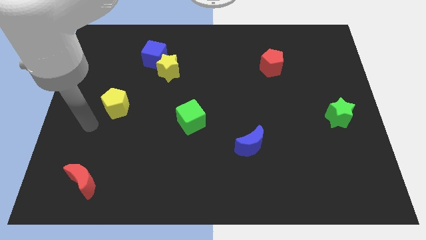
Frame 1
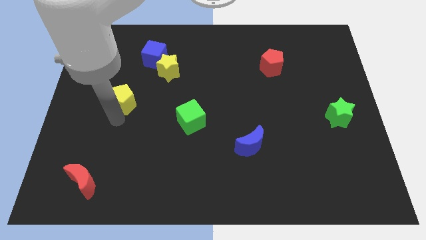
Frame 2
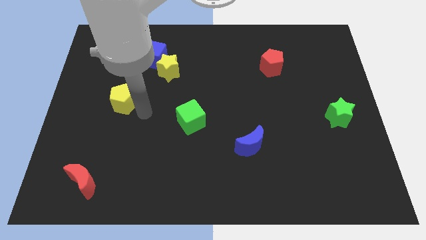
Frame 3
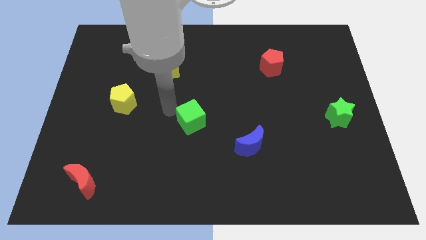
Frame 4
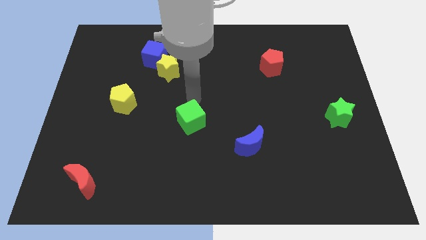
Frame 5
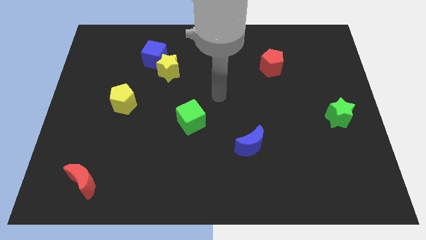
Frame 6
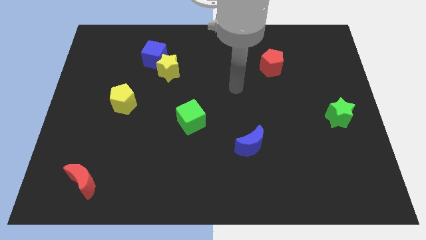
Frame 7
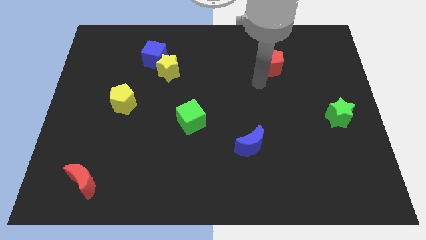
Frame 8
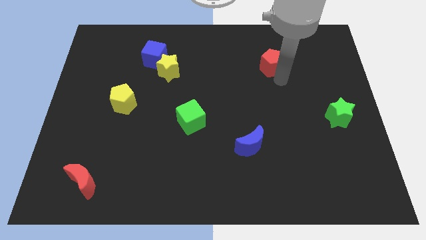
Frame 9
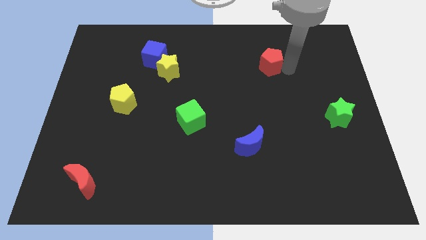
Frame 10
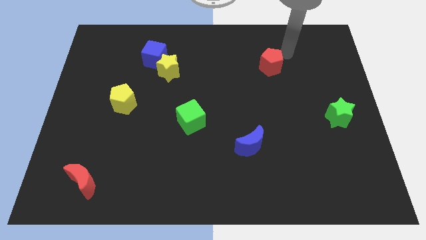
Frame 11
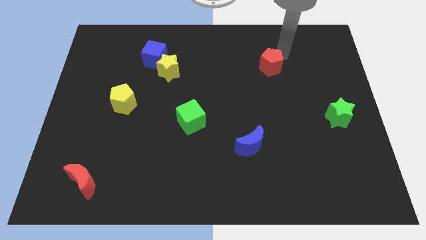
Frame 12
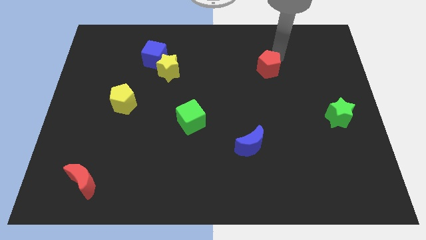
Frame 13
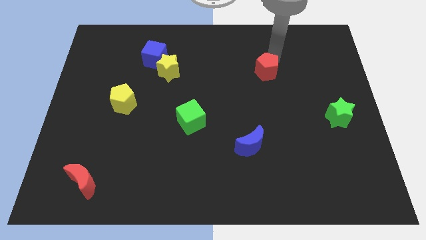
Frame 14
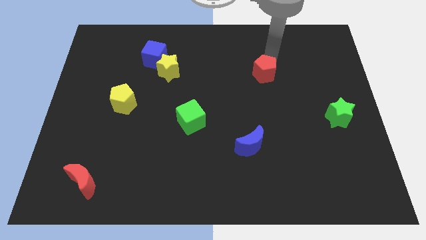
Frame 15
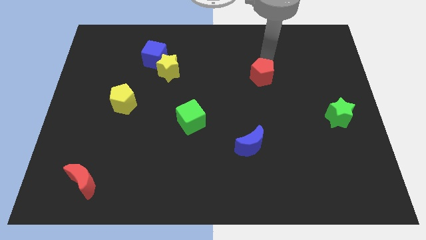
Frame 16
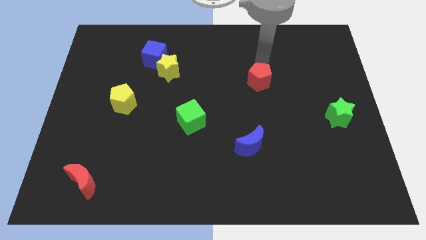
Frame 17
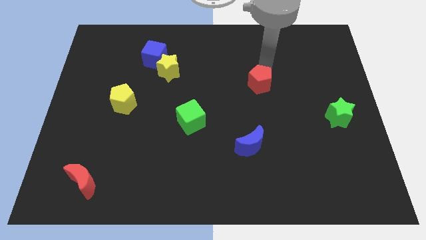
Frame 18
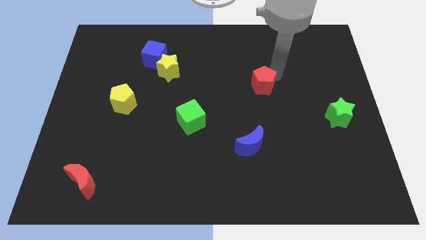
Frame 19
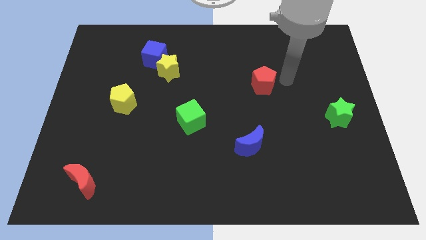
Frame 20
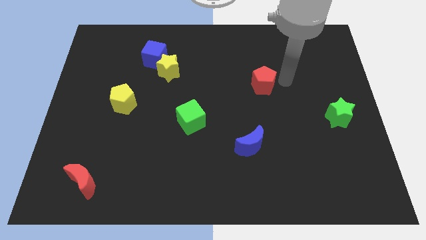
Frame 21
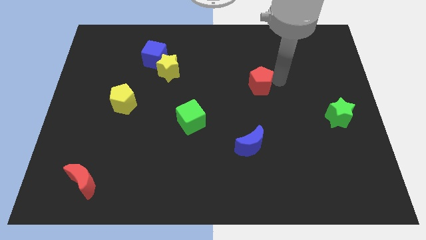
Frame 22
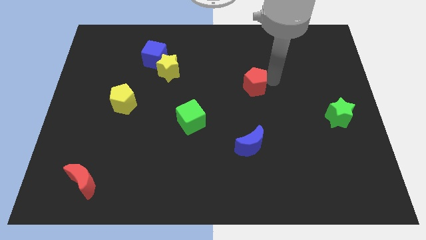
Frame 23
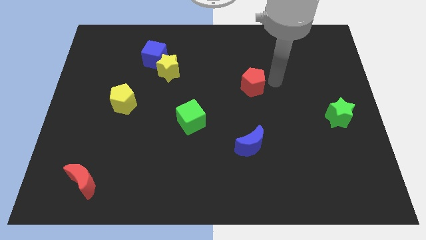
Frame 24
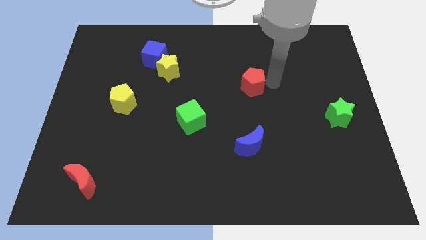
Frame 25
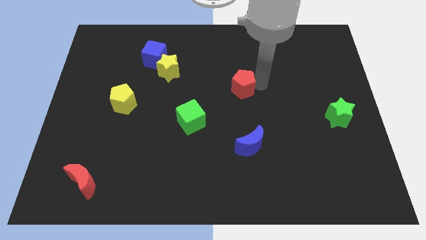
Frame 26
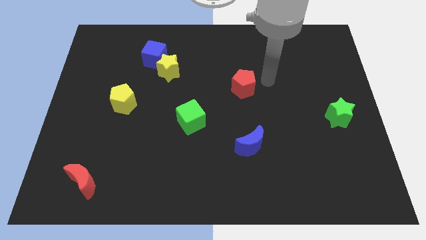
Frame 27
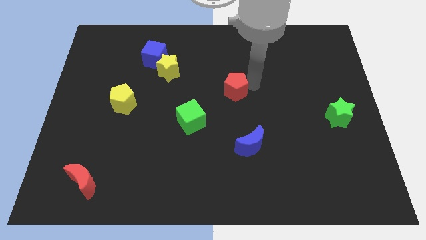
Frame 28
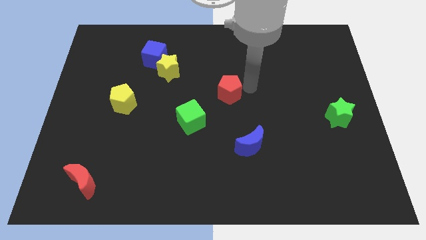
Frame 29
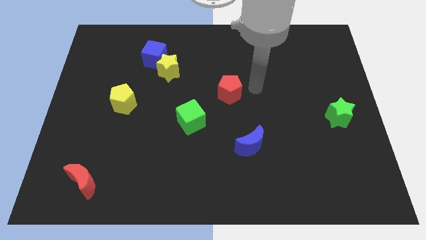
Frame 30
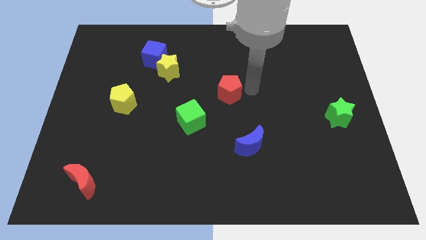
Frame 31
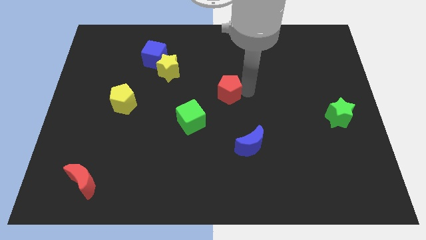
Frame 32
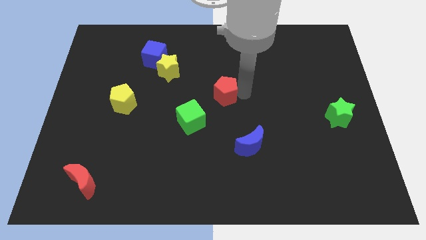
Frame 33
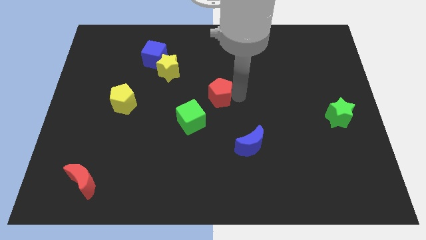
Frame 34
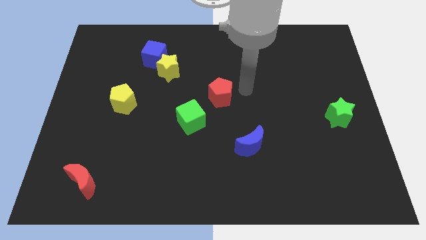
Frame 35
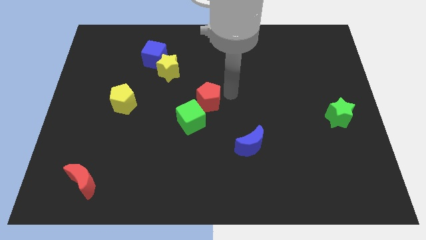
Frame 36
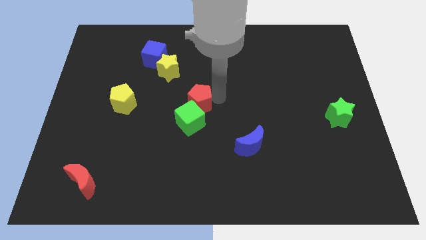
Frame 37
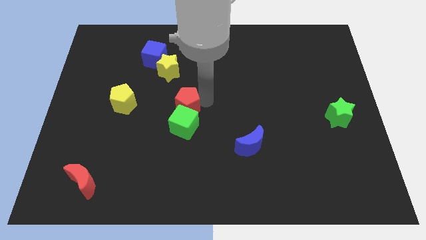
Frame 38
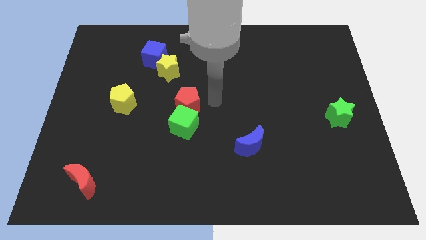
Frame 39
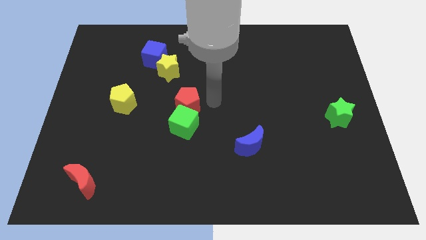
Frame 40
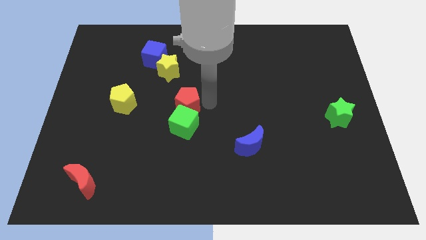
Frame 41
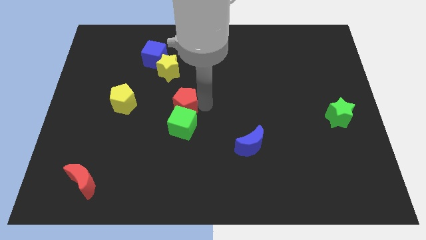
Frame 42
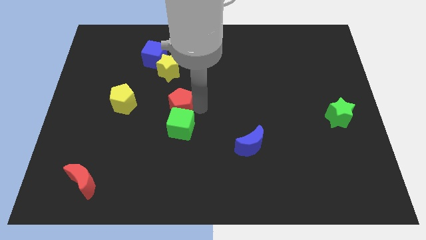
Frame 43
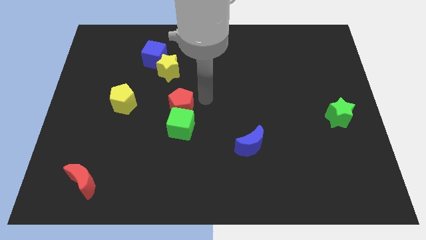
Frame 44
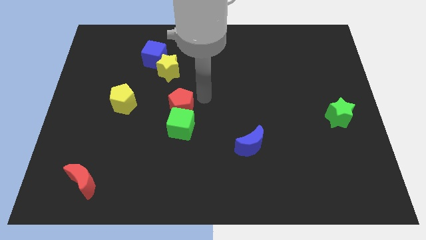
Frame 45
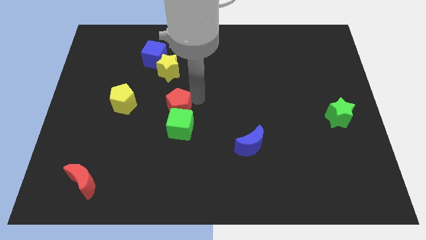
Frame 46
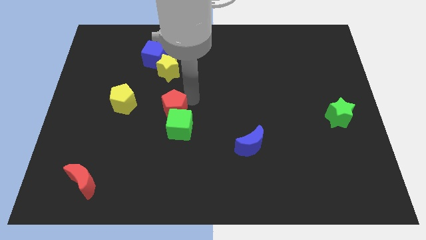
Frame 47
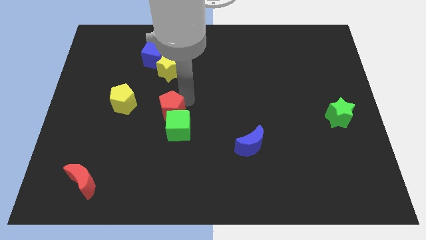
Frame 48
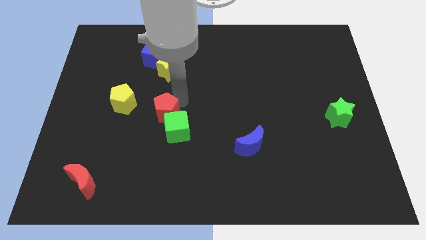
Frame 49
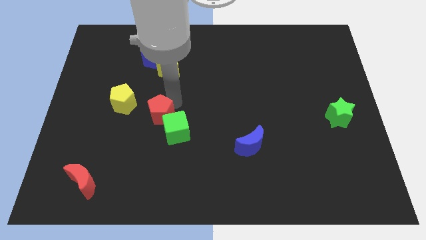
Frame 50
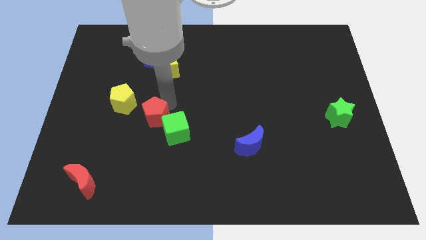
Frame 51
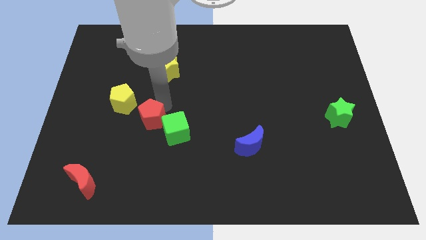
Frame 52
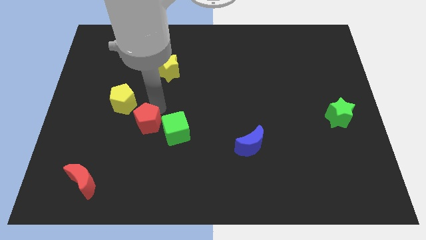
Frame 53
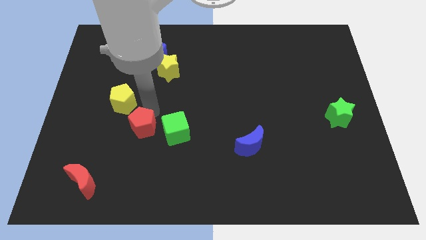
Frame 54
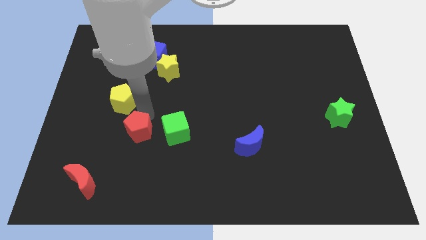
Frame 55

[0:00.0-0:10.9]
move the red pentagon to the bottom of the yellow pentagon

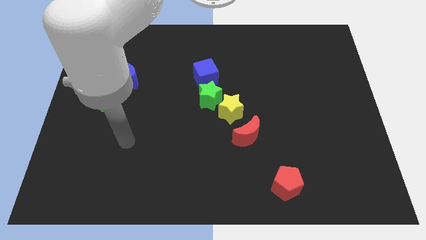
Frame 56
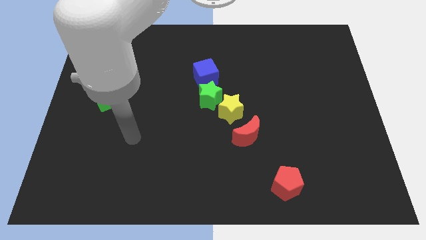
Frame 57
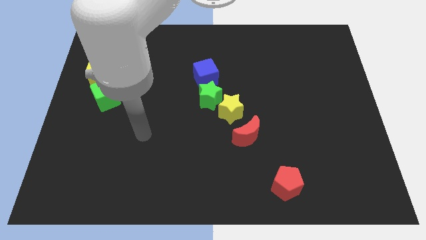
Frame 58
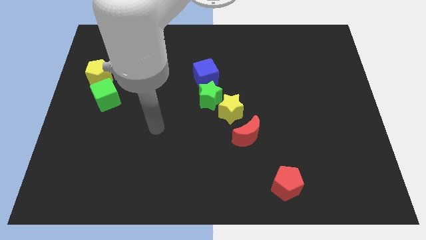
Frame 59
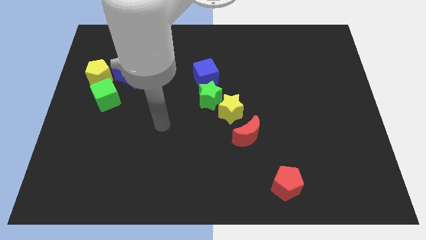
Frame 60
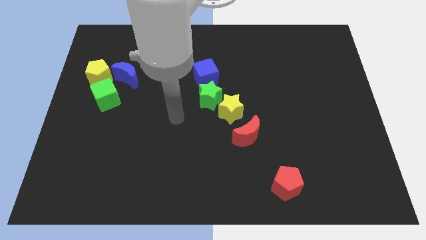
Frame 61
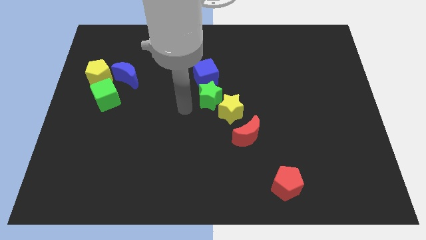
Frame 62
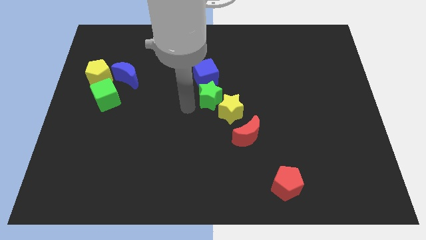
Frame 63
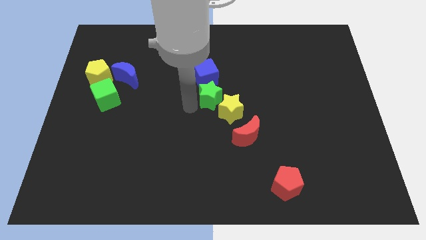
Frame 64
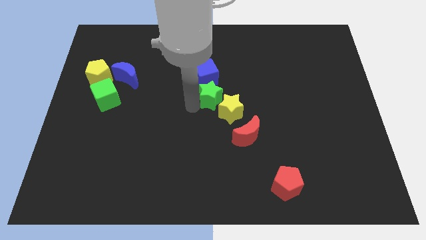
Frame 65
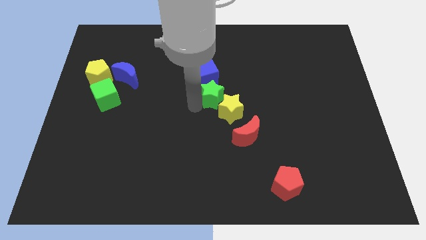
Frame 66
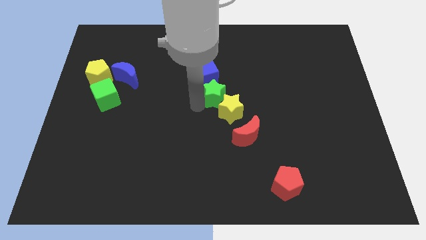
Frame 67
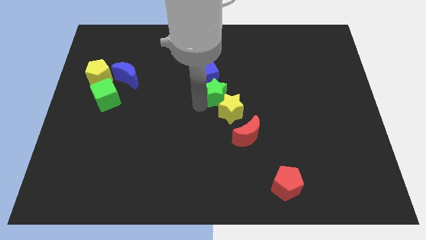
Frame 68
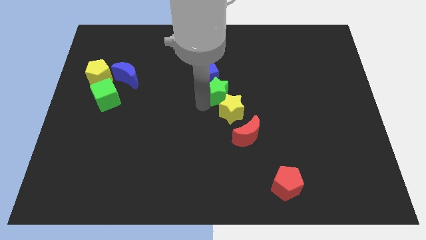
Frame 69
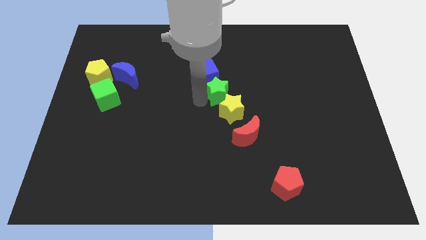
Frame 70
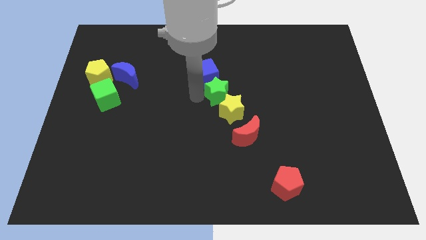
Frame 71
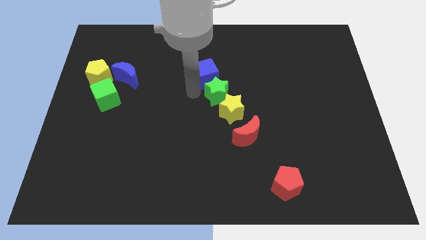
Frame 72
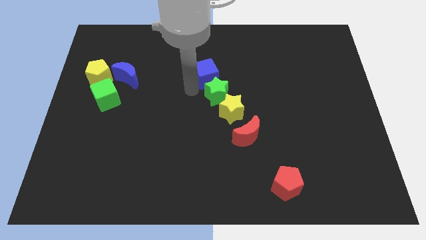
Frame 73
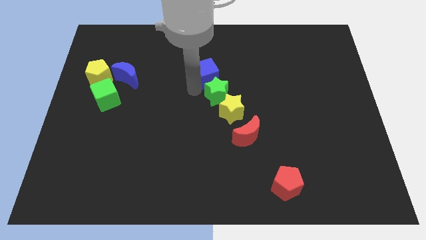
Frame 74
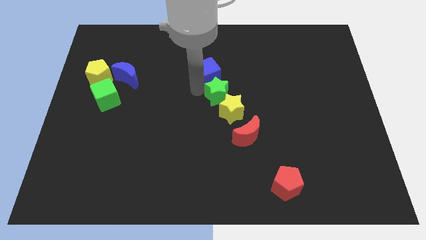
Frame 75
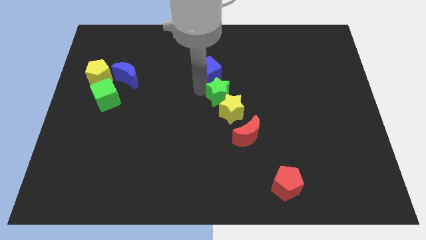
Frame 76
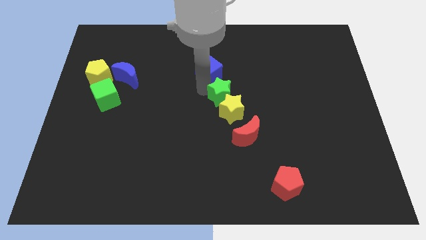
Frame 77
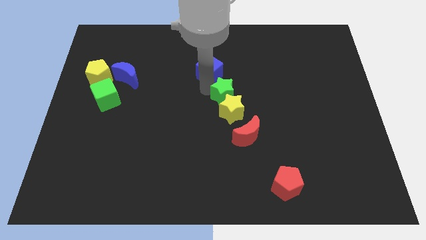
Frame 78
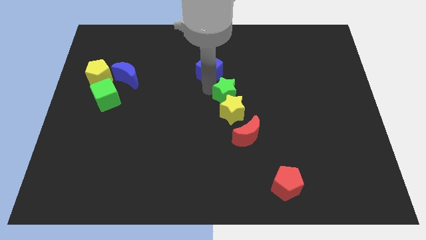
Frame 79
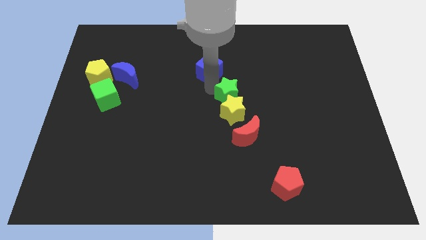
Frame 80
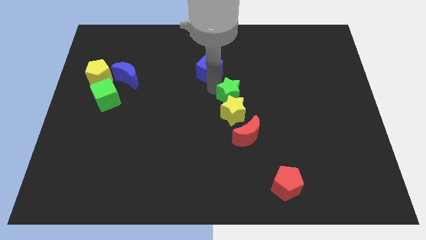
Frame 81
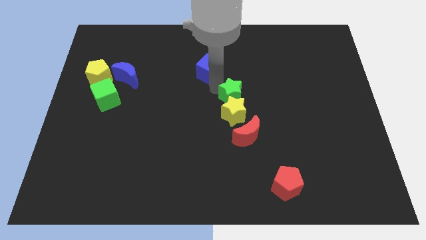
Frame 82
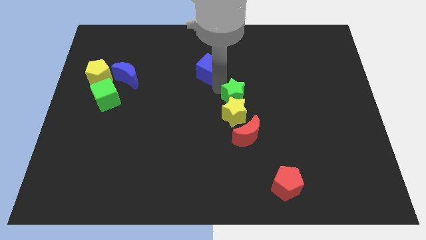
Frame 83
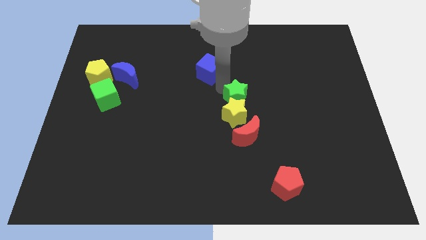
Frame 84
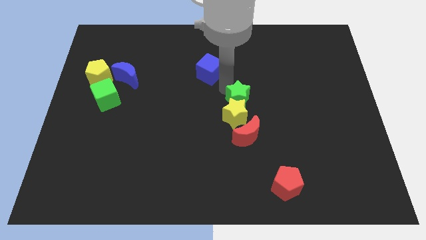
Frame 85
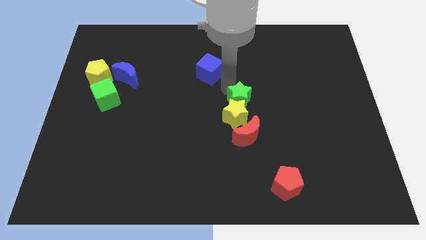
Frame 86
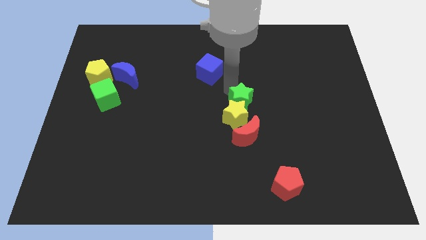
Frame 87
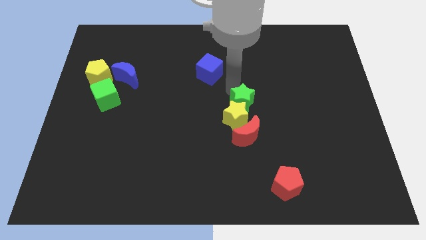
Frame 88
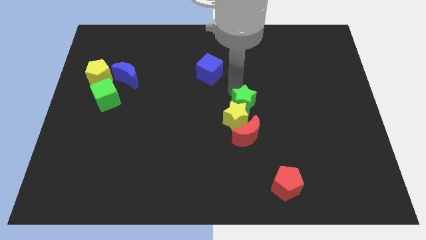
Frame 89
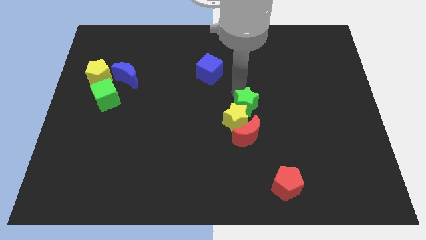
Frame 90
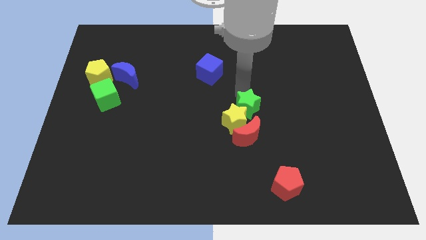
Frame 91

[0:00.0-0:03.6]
put the green star to the right side of the yellow star
